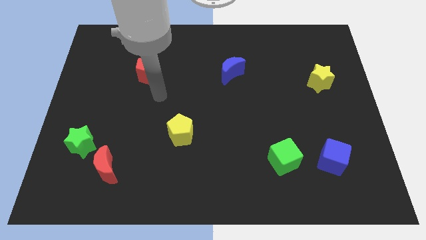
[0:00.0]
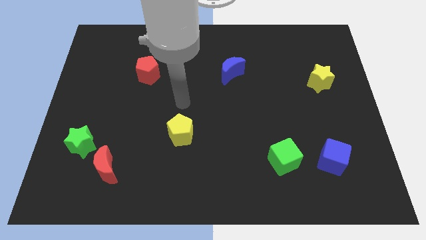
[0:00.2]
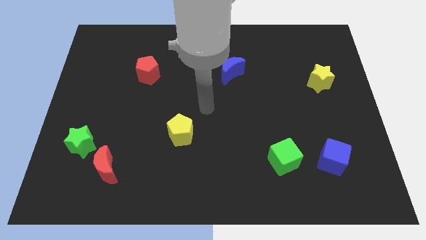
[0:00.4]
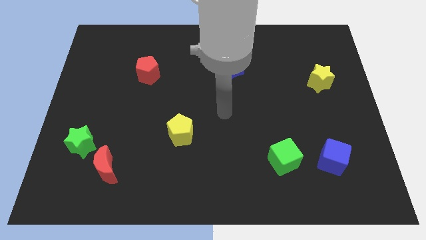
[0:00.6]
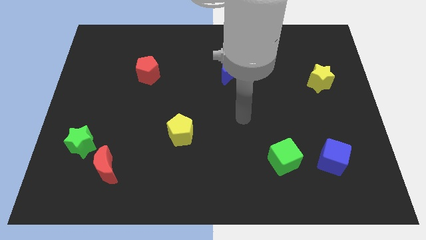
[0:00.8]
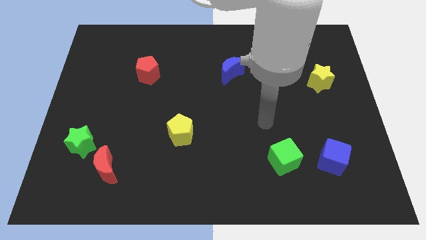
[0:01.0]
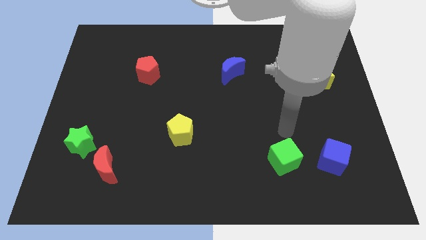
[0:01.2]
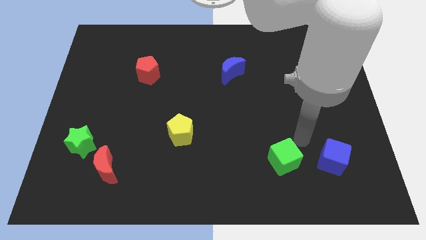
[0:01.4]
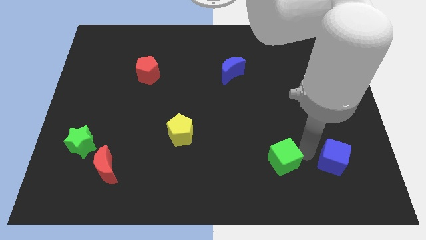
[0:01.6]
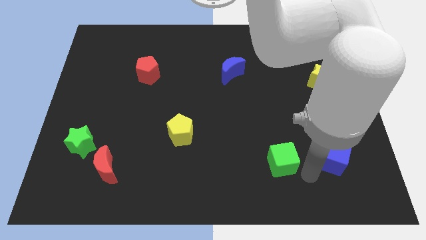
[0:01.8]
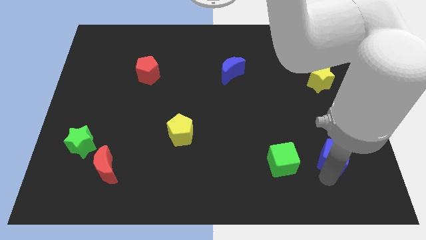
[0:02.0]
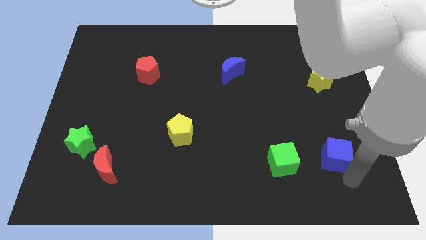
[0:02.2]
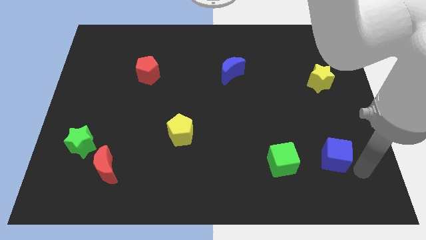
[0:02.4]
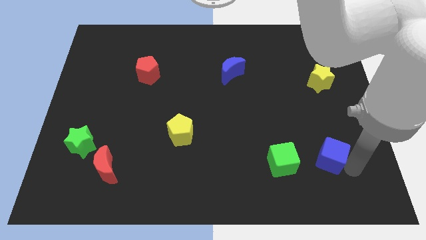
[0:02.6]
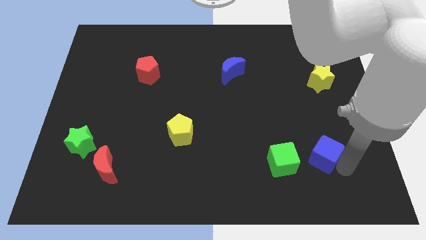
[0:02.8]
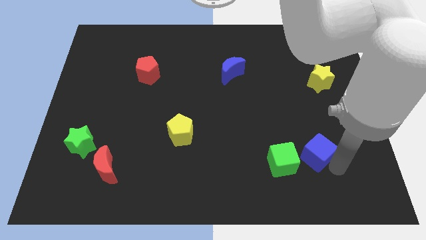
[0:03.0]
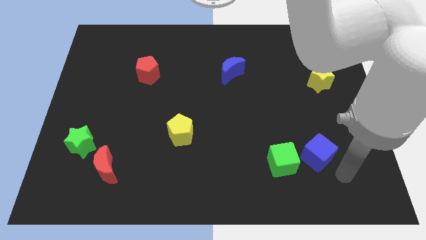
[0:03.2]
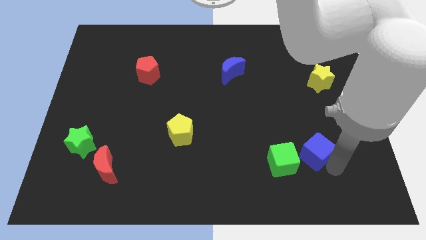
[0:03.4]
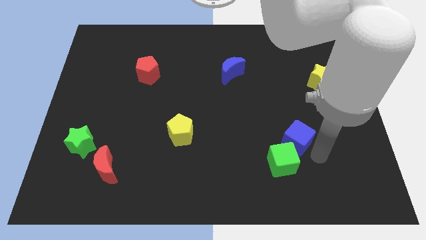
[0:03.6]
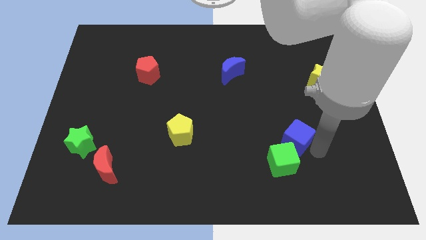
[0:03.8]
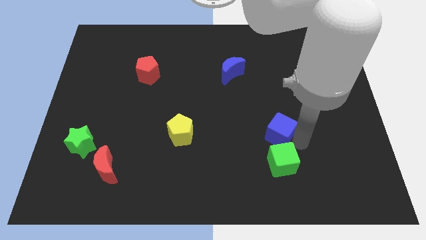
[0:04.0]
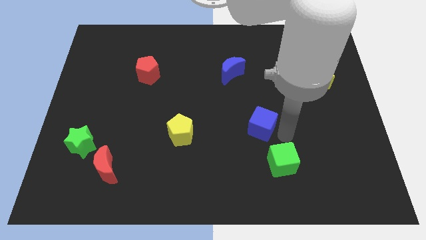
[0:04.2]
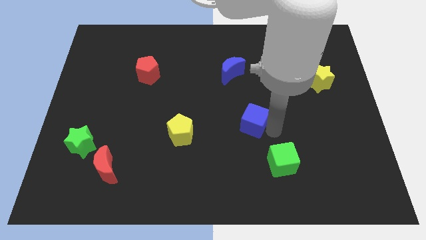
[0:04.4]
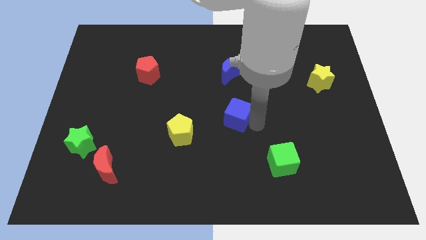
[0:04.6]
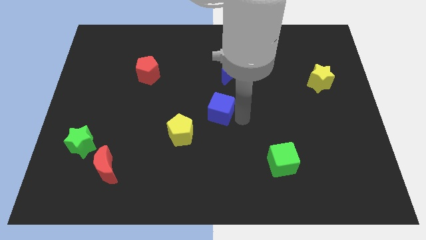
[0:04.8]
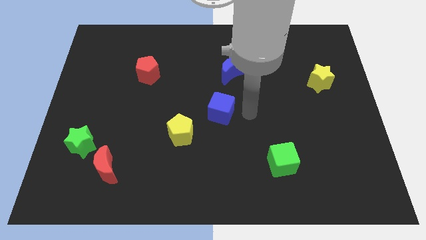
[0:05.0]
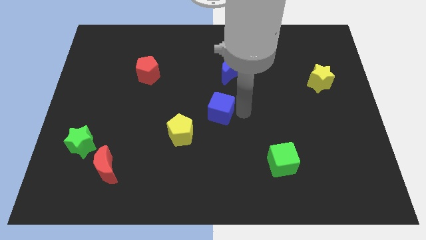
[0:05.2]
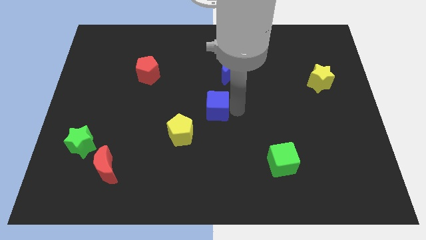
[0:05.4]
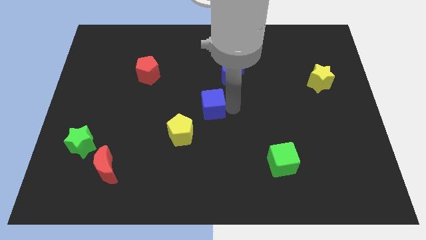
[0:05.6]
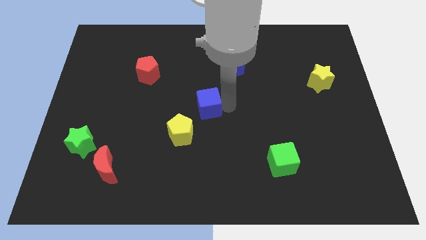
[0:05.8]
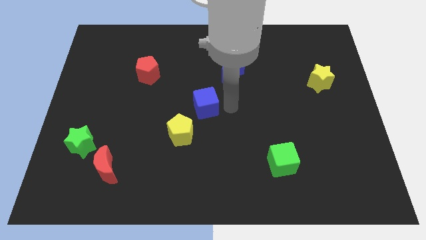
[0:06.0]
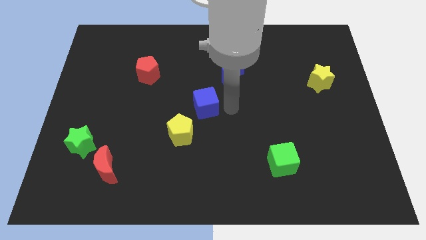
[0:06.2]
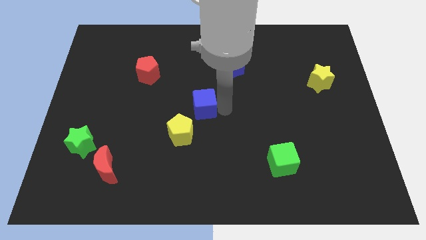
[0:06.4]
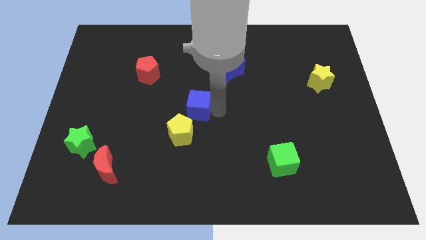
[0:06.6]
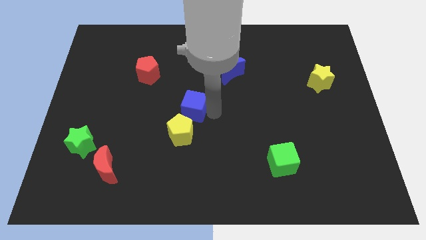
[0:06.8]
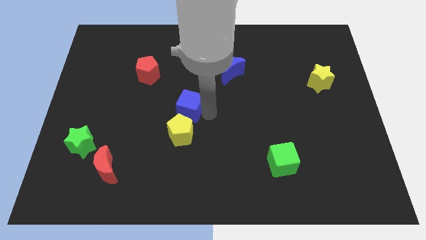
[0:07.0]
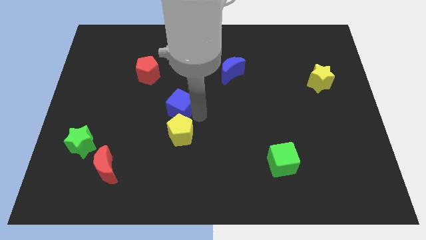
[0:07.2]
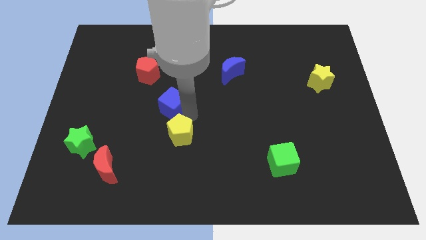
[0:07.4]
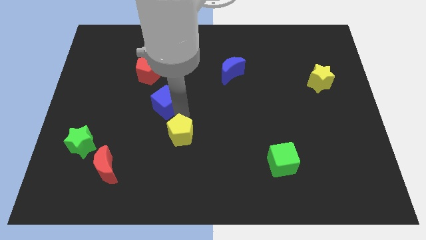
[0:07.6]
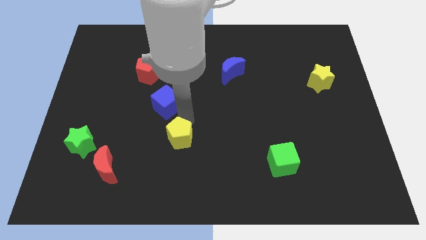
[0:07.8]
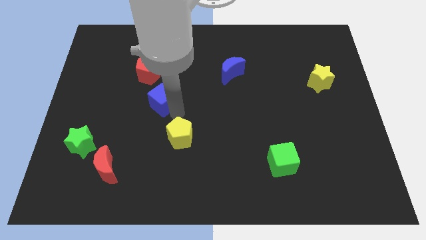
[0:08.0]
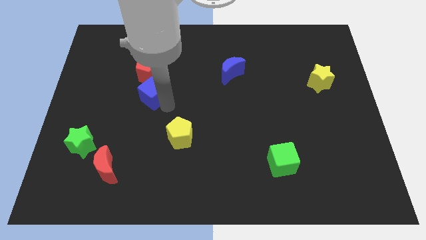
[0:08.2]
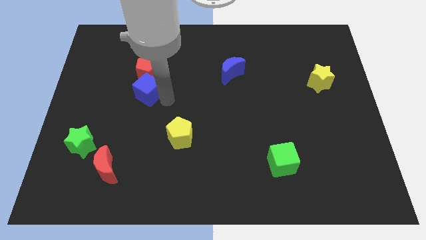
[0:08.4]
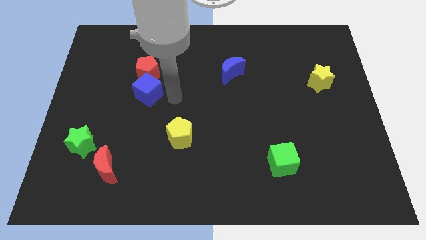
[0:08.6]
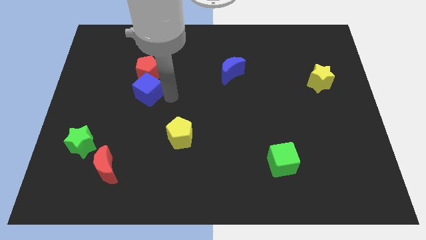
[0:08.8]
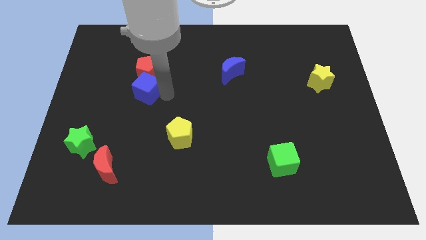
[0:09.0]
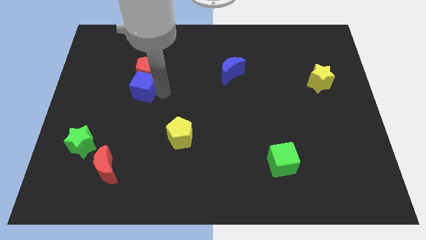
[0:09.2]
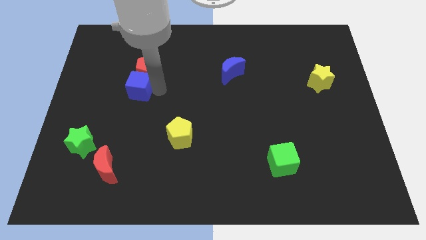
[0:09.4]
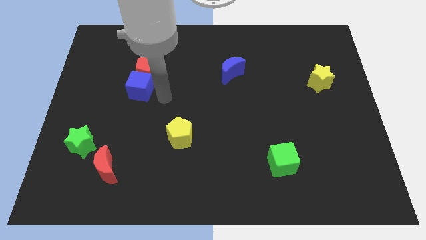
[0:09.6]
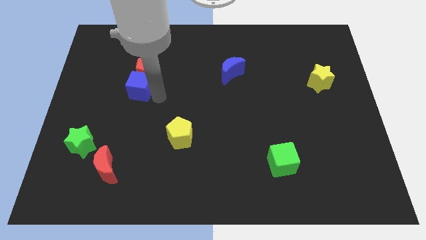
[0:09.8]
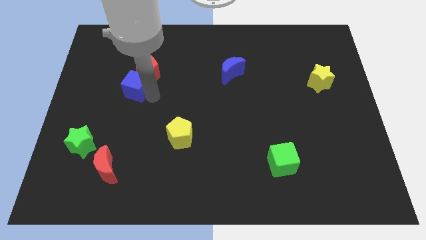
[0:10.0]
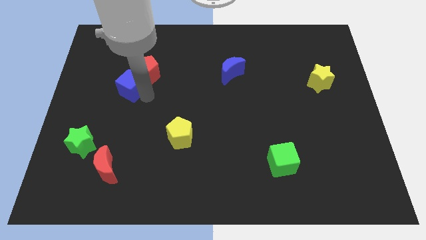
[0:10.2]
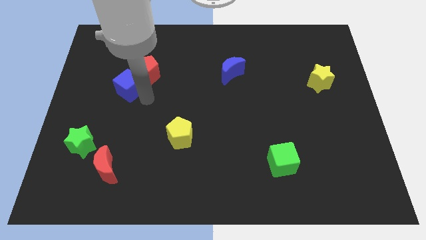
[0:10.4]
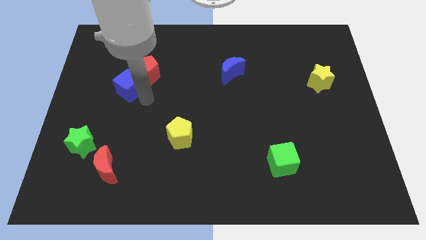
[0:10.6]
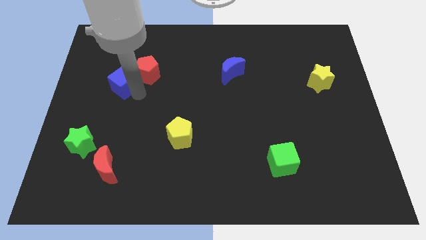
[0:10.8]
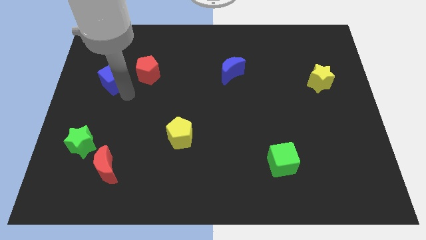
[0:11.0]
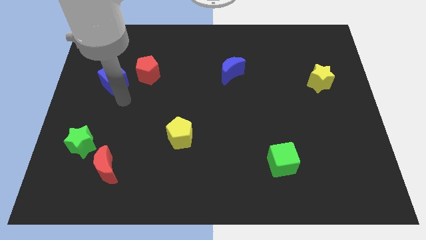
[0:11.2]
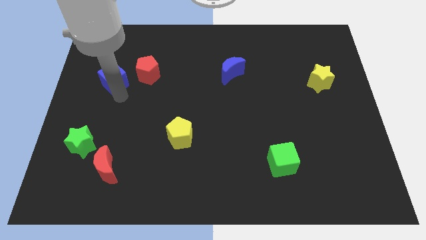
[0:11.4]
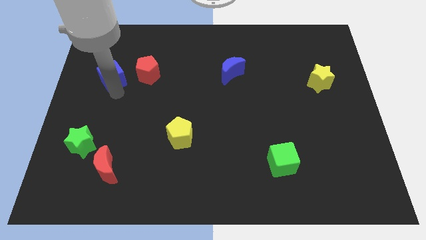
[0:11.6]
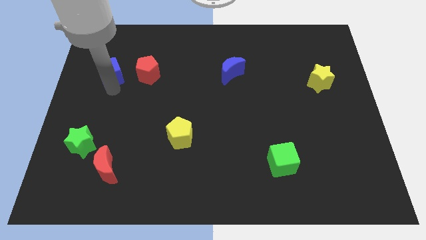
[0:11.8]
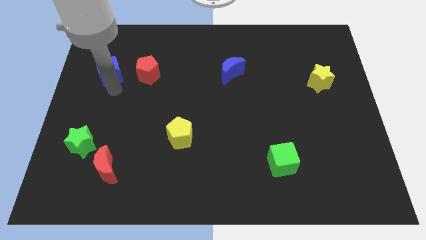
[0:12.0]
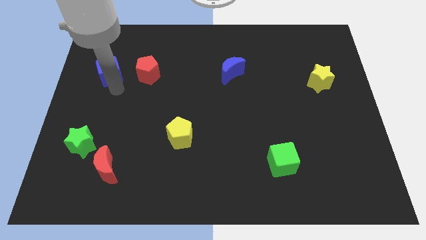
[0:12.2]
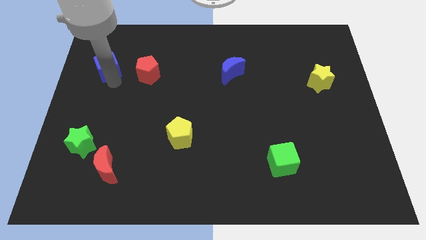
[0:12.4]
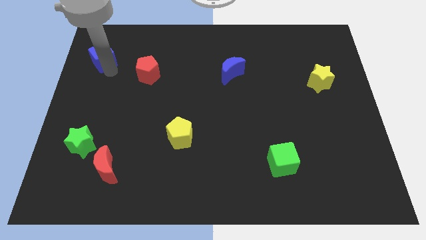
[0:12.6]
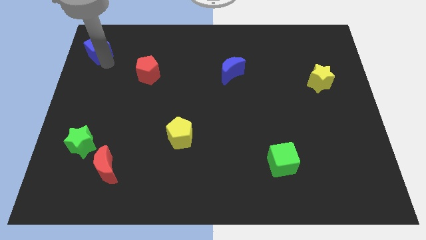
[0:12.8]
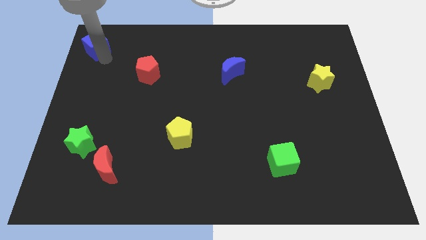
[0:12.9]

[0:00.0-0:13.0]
move the blue cube to the top left corner

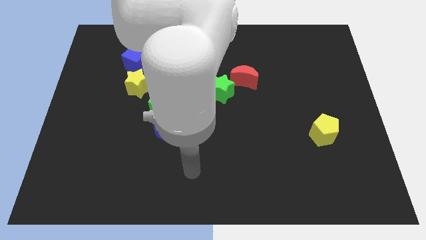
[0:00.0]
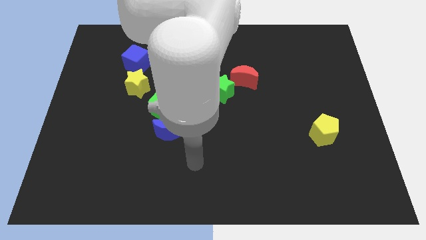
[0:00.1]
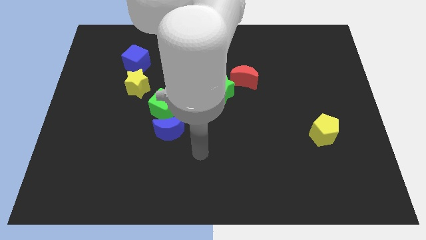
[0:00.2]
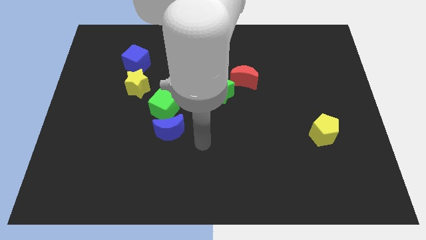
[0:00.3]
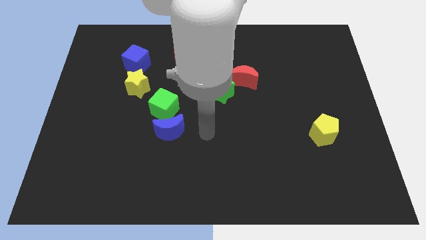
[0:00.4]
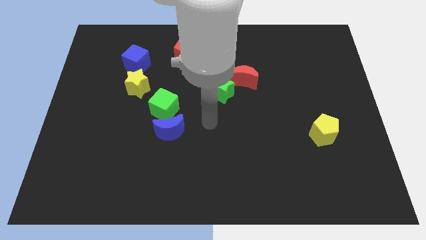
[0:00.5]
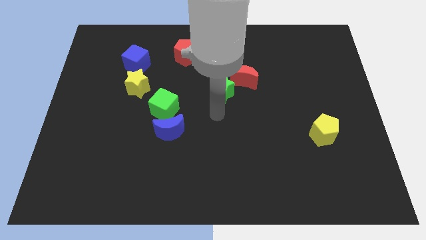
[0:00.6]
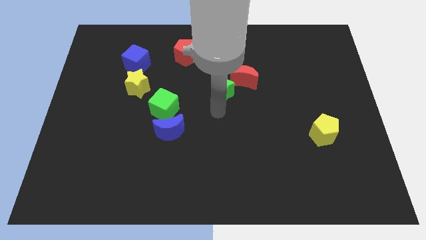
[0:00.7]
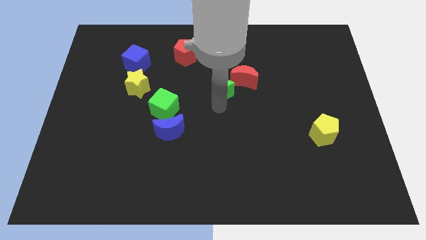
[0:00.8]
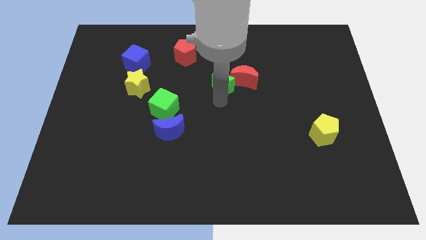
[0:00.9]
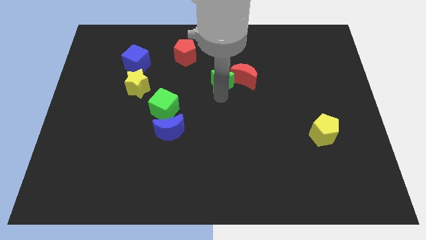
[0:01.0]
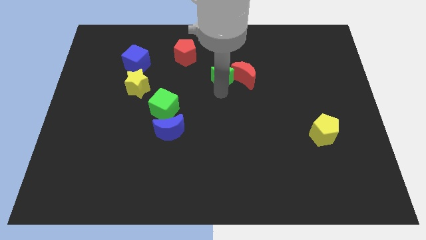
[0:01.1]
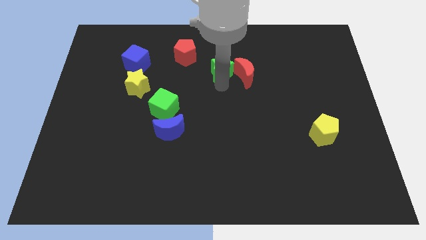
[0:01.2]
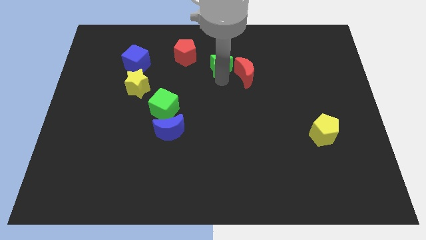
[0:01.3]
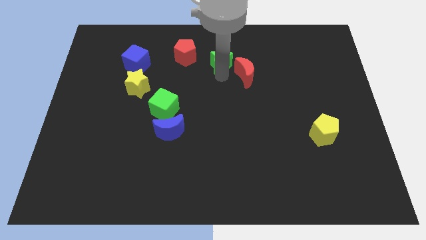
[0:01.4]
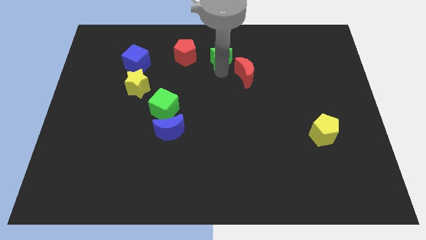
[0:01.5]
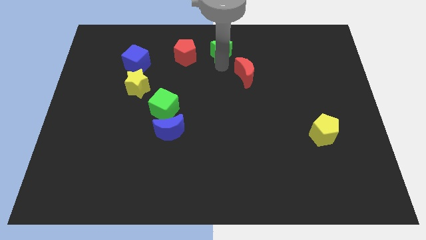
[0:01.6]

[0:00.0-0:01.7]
move the green star to the top side
